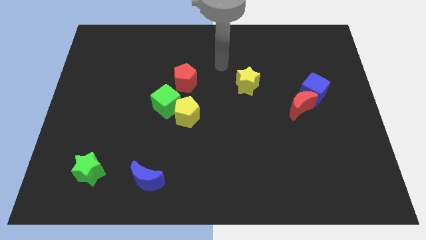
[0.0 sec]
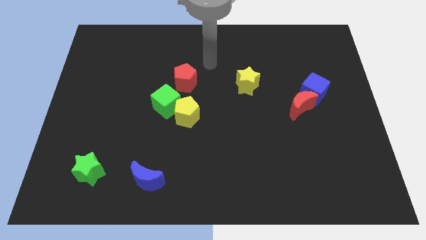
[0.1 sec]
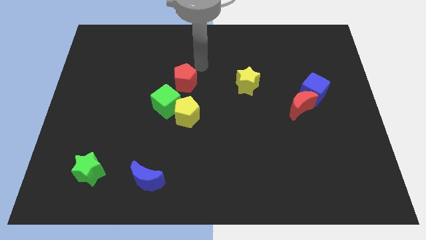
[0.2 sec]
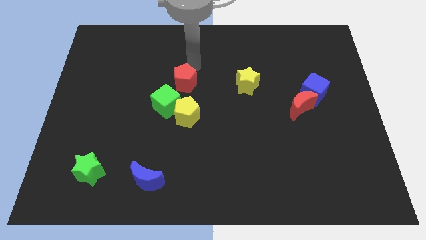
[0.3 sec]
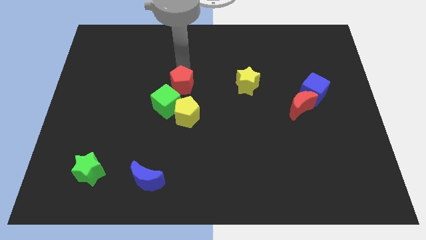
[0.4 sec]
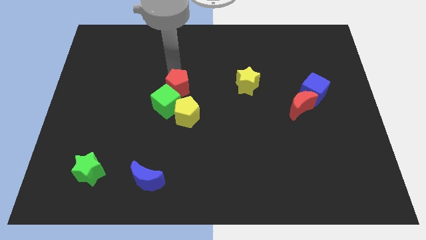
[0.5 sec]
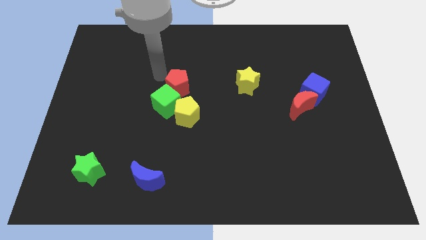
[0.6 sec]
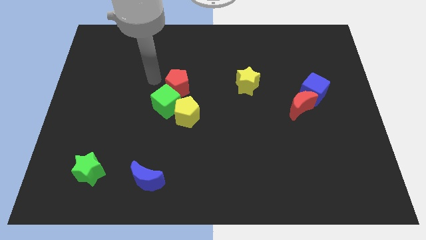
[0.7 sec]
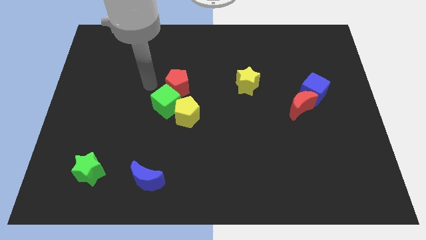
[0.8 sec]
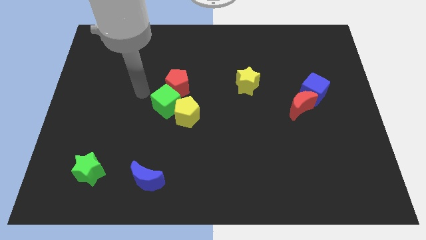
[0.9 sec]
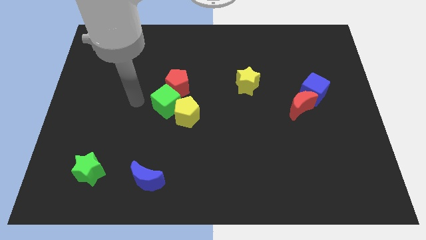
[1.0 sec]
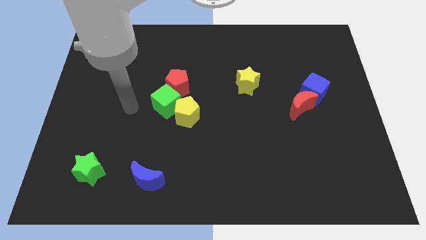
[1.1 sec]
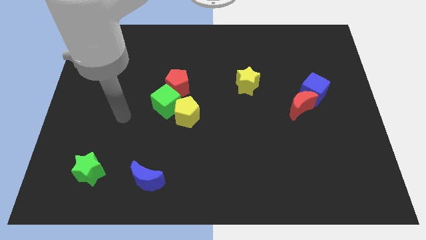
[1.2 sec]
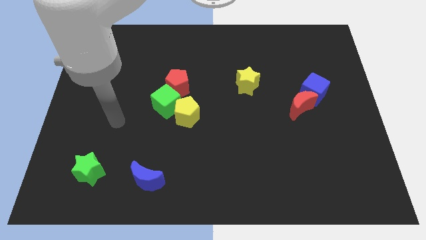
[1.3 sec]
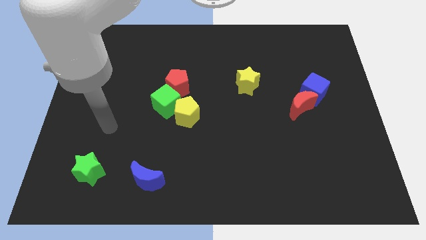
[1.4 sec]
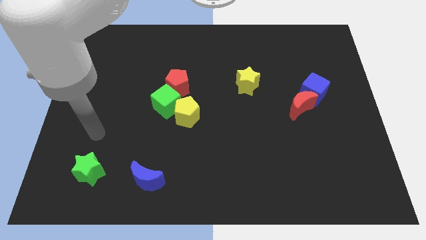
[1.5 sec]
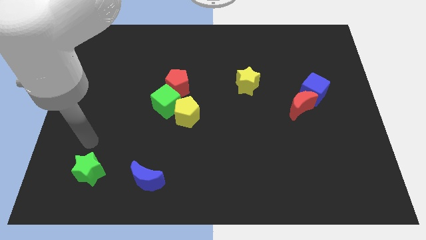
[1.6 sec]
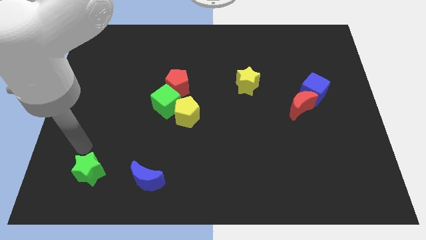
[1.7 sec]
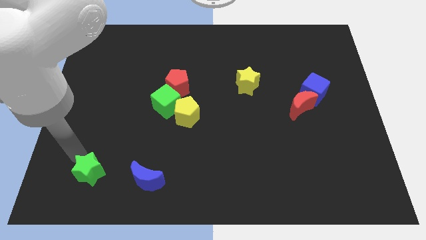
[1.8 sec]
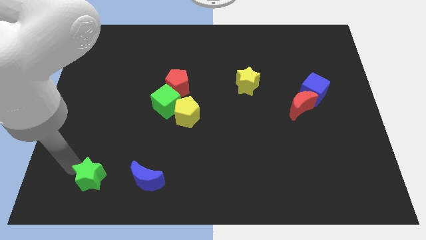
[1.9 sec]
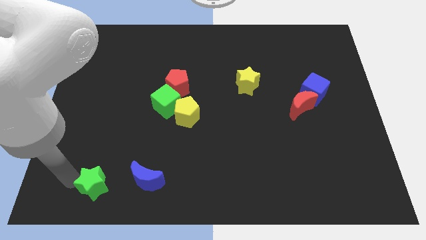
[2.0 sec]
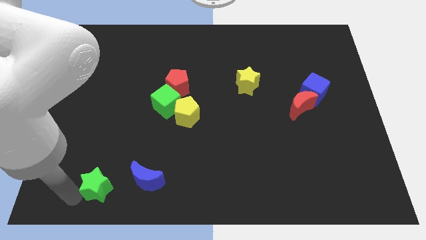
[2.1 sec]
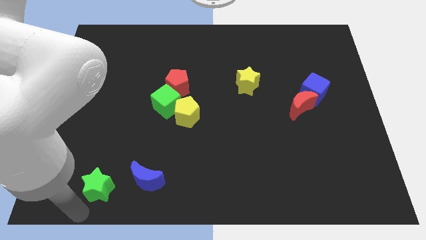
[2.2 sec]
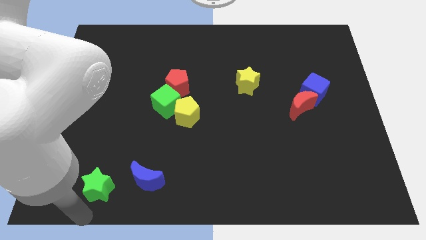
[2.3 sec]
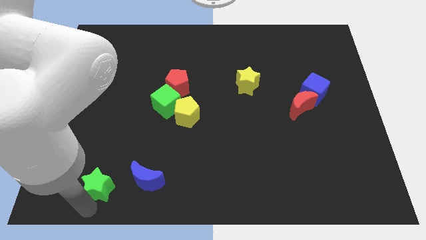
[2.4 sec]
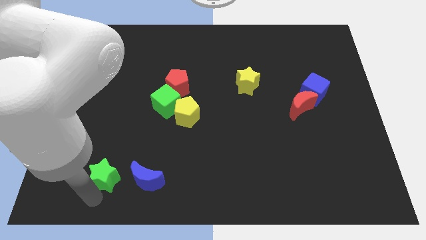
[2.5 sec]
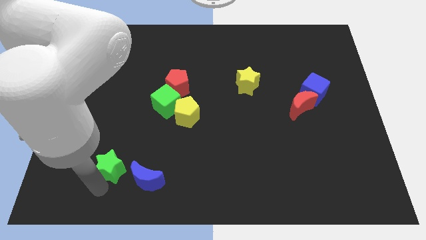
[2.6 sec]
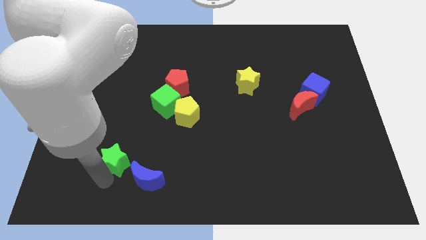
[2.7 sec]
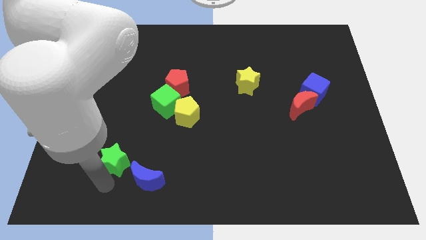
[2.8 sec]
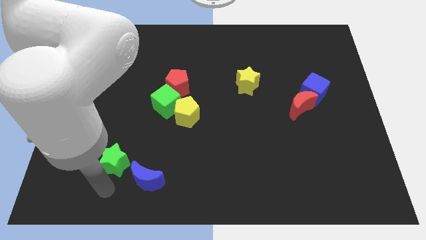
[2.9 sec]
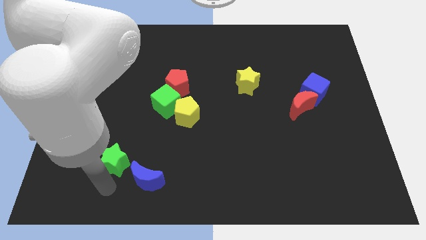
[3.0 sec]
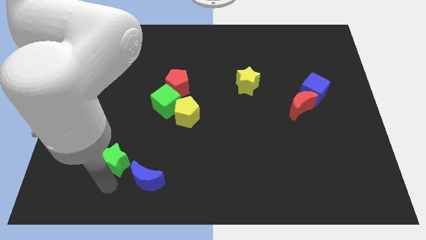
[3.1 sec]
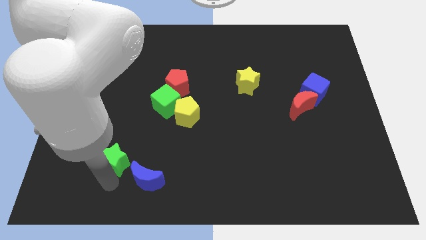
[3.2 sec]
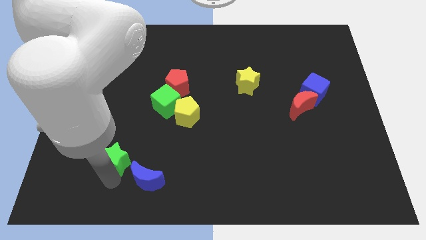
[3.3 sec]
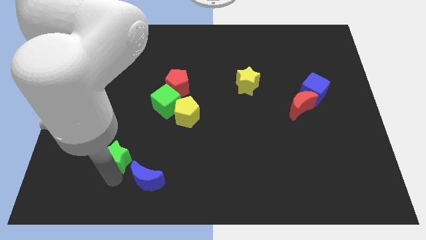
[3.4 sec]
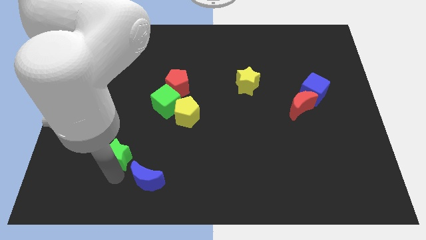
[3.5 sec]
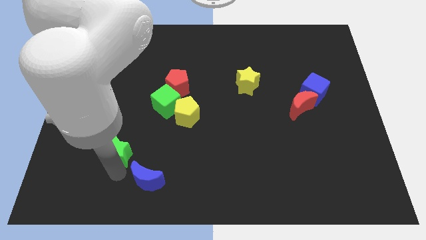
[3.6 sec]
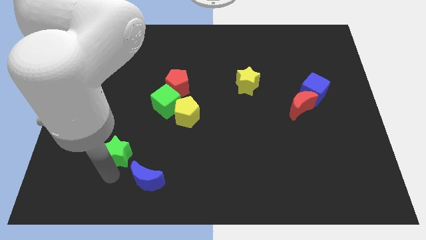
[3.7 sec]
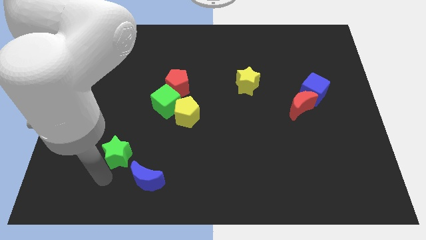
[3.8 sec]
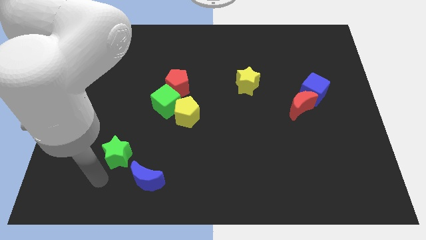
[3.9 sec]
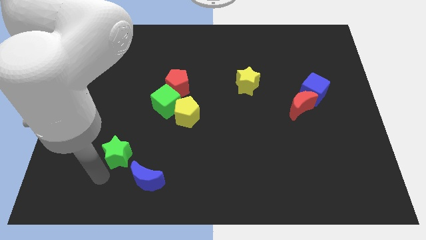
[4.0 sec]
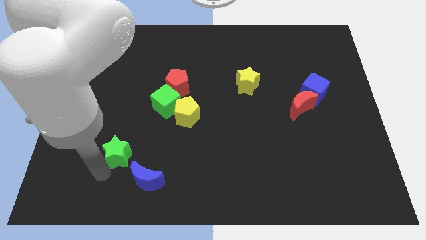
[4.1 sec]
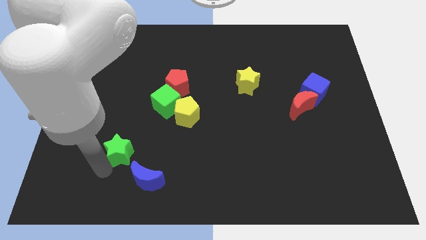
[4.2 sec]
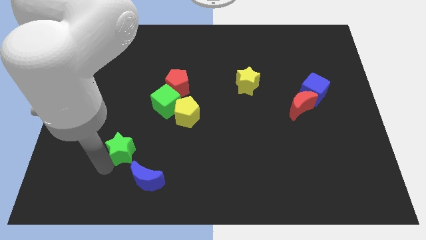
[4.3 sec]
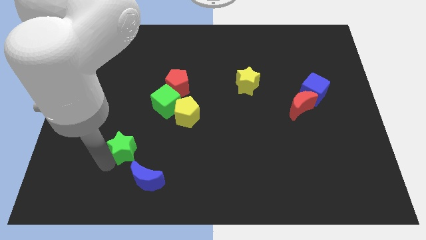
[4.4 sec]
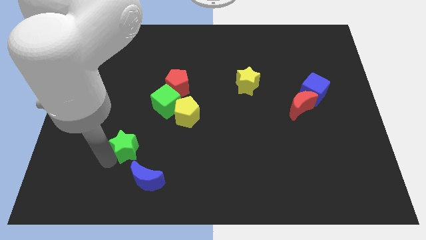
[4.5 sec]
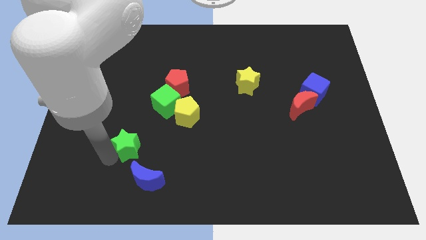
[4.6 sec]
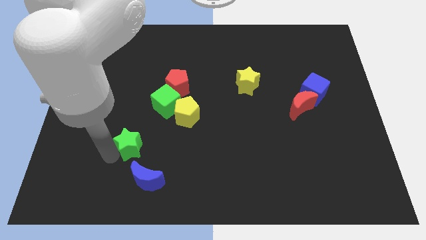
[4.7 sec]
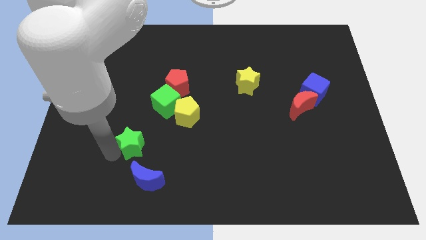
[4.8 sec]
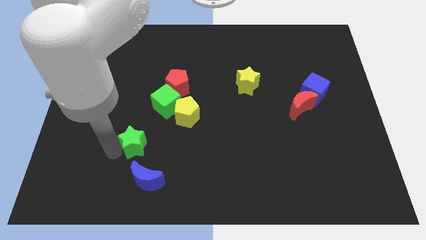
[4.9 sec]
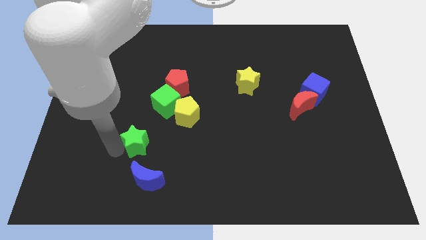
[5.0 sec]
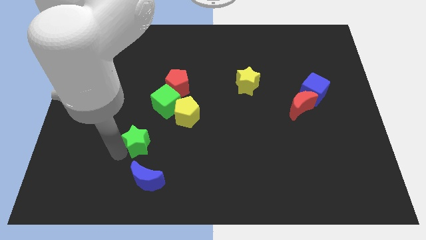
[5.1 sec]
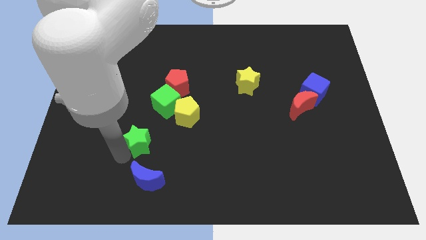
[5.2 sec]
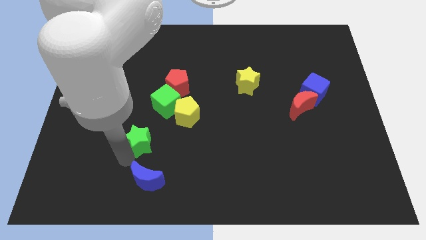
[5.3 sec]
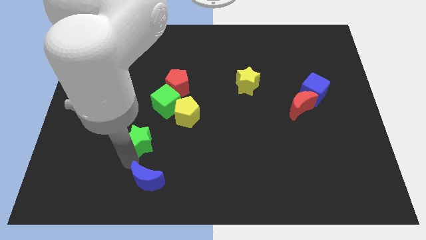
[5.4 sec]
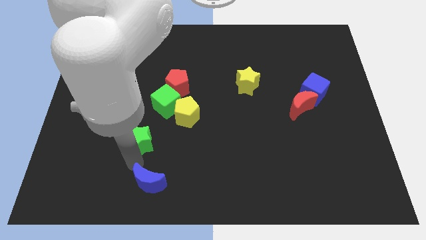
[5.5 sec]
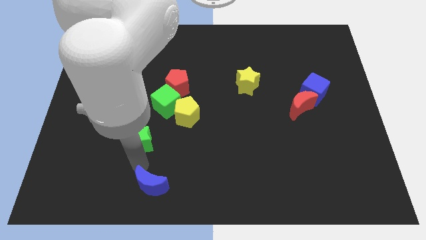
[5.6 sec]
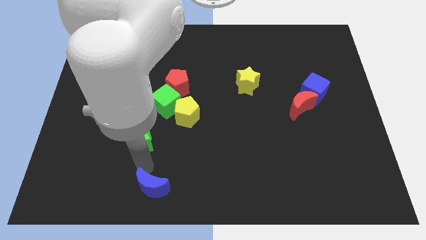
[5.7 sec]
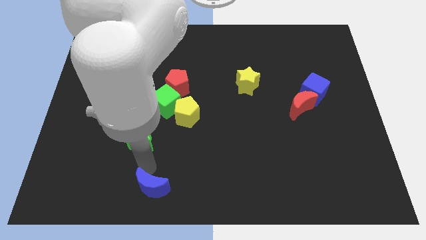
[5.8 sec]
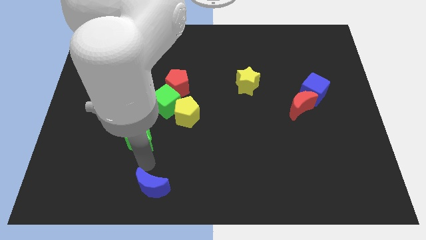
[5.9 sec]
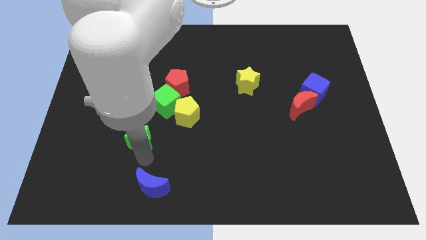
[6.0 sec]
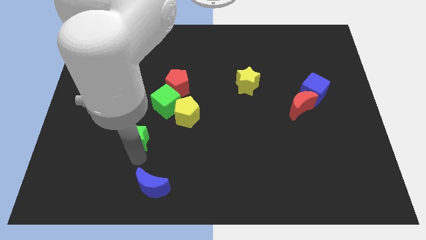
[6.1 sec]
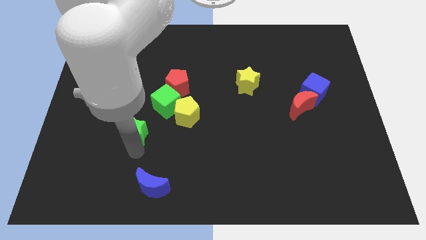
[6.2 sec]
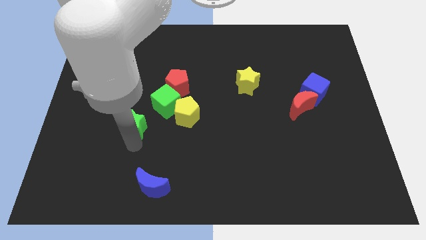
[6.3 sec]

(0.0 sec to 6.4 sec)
push the green star to the left of the yellow pentagon
